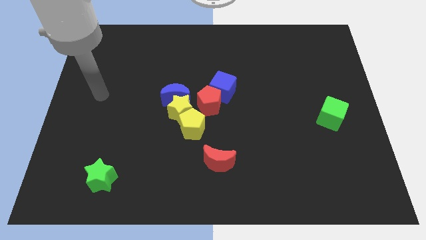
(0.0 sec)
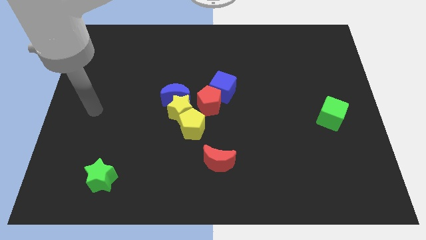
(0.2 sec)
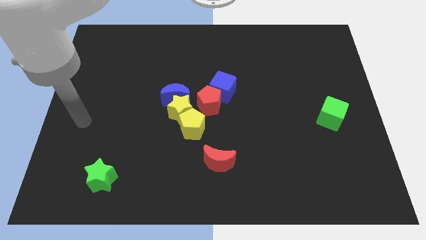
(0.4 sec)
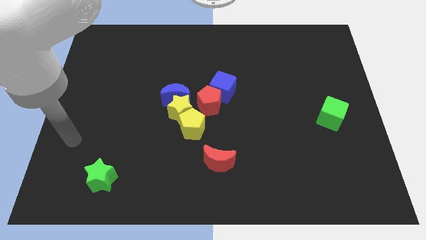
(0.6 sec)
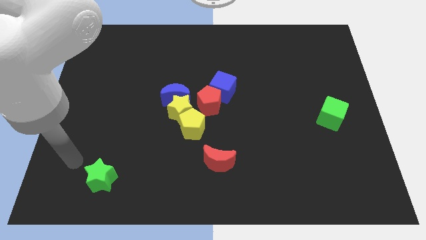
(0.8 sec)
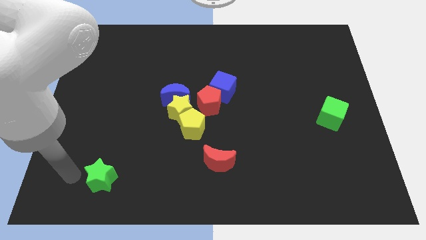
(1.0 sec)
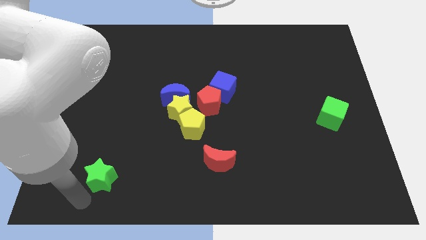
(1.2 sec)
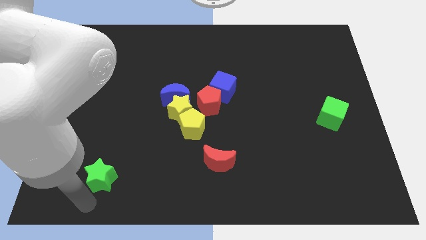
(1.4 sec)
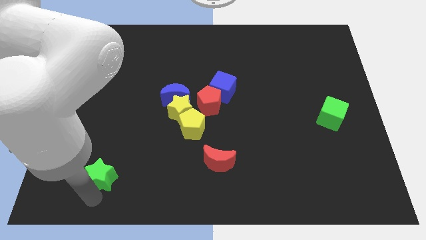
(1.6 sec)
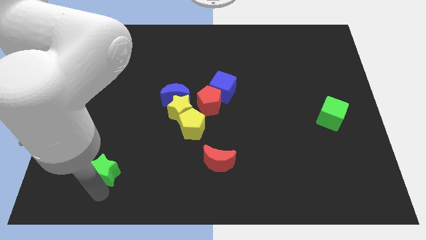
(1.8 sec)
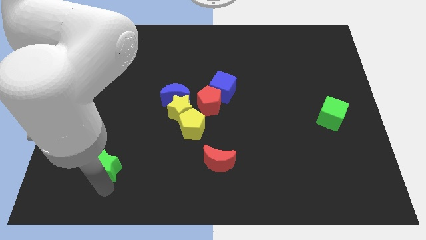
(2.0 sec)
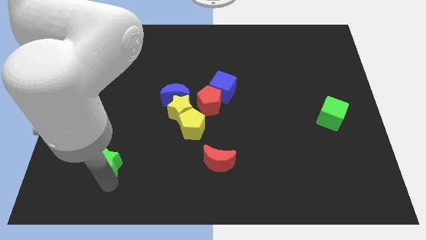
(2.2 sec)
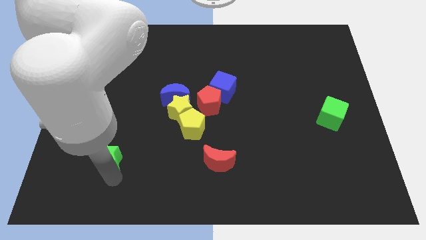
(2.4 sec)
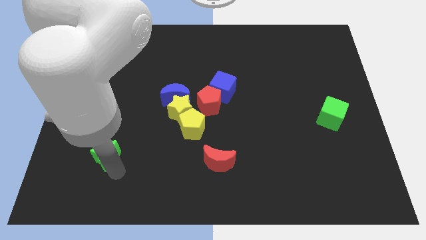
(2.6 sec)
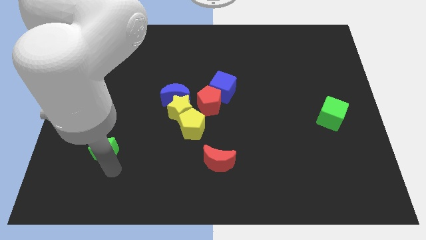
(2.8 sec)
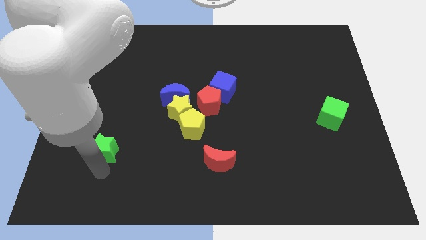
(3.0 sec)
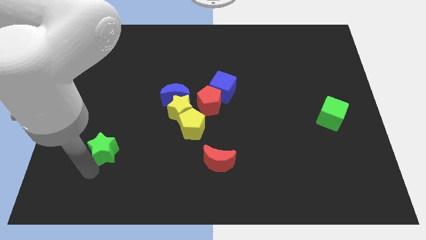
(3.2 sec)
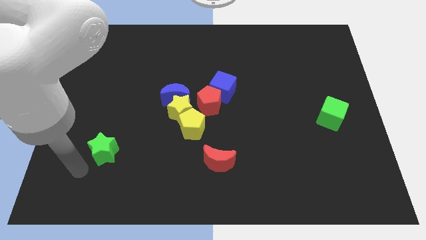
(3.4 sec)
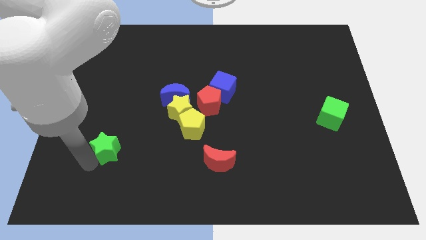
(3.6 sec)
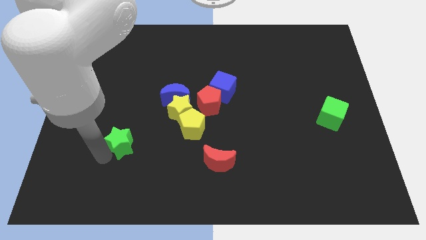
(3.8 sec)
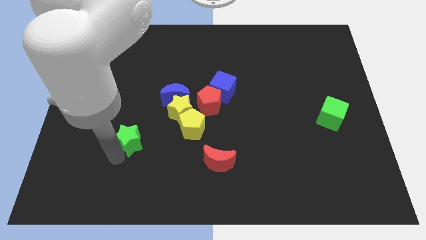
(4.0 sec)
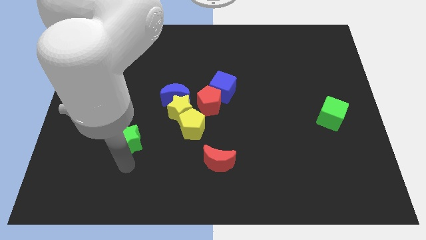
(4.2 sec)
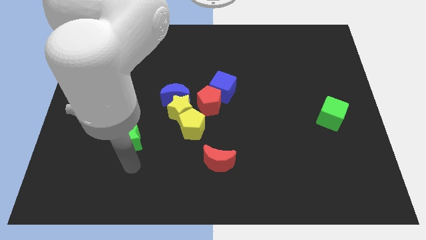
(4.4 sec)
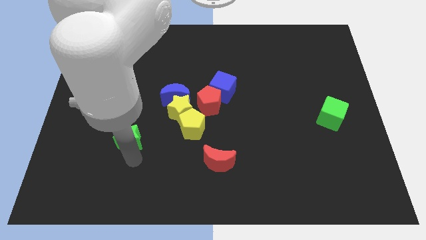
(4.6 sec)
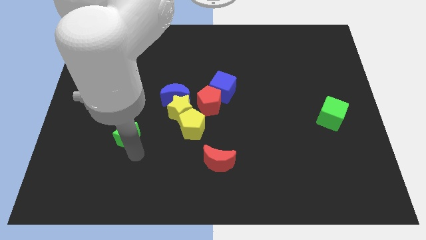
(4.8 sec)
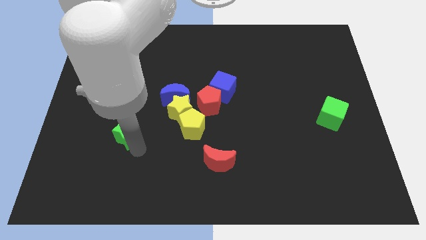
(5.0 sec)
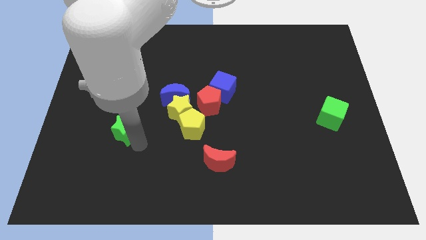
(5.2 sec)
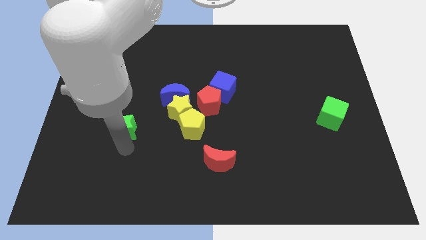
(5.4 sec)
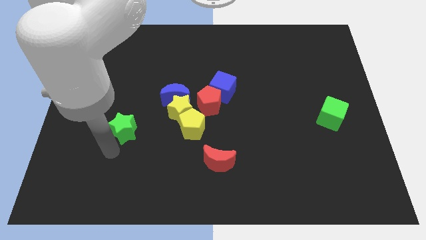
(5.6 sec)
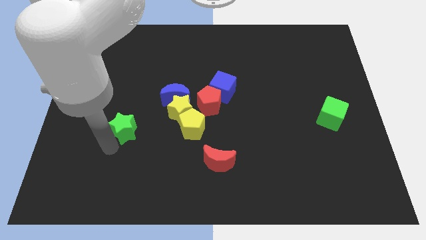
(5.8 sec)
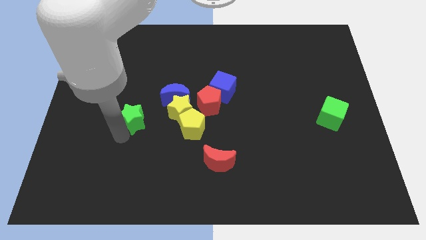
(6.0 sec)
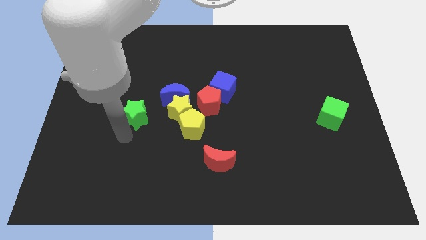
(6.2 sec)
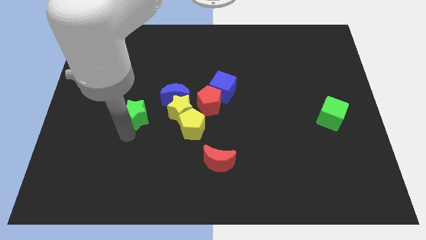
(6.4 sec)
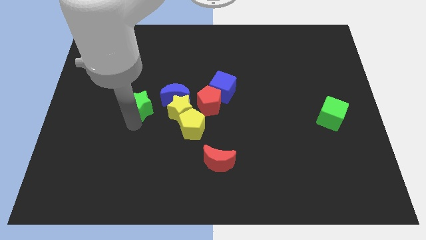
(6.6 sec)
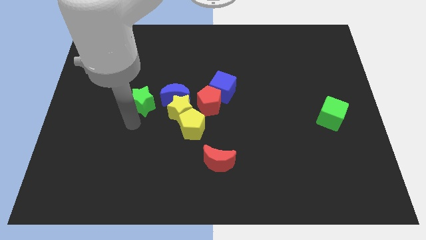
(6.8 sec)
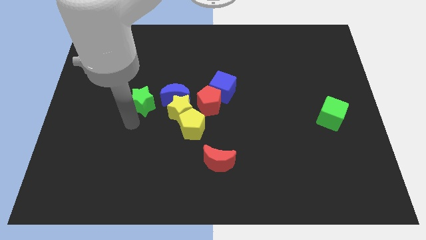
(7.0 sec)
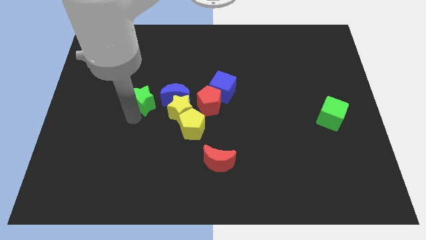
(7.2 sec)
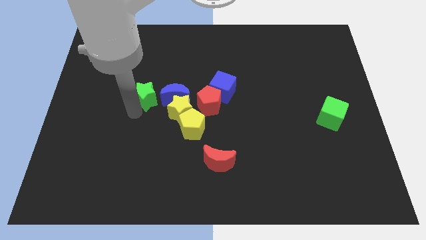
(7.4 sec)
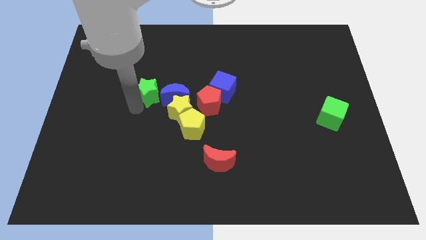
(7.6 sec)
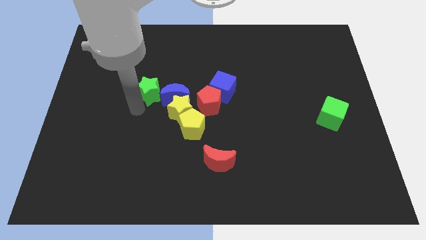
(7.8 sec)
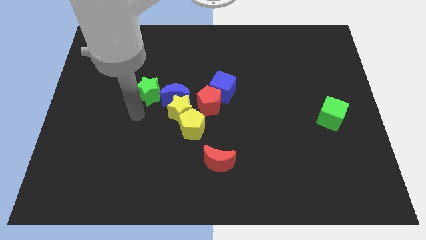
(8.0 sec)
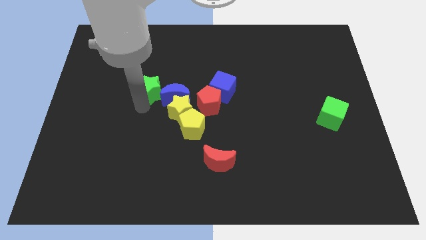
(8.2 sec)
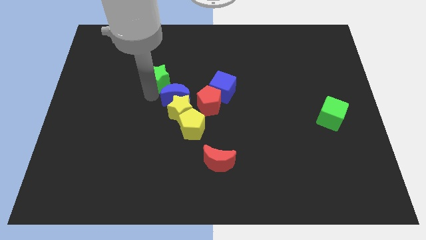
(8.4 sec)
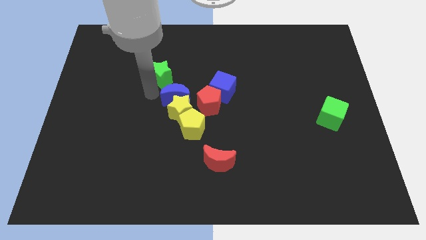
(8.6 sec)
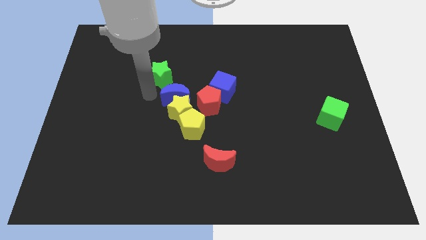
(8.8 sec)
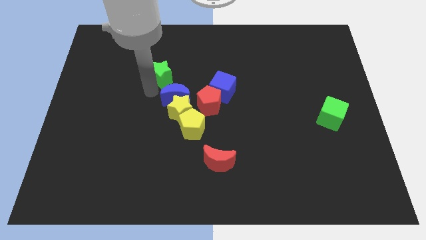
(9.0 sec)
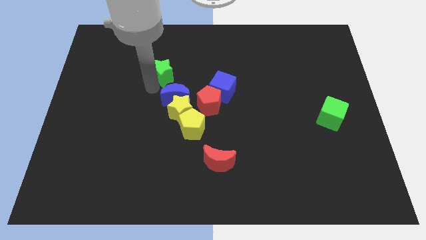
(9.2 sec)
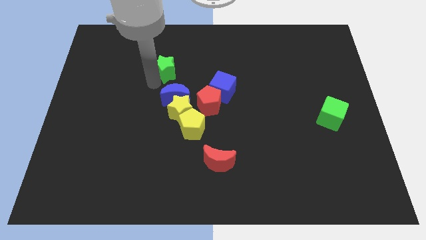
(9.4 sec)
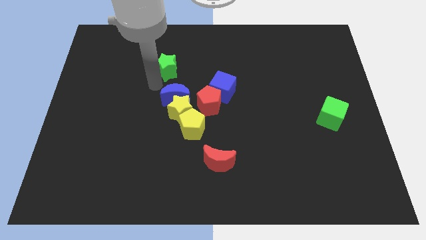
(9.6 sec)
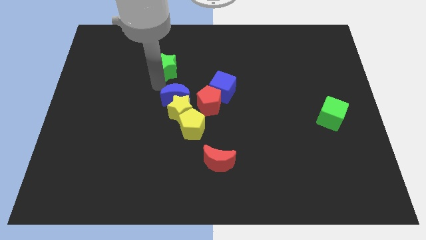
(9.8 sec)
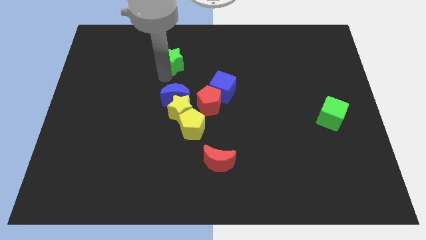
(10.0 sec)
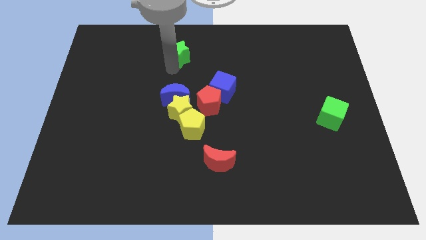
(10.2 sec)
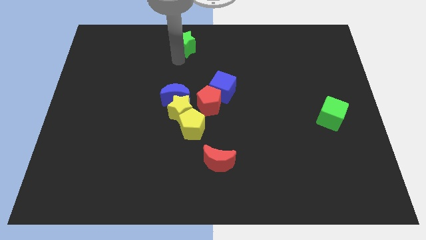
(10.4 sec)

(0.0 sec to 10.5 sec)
push the green star to the top

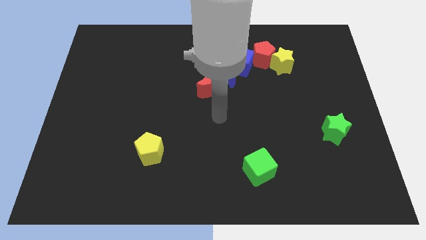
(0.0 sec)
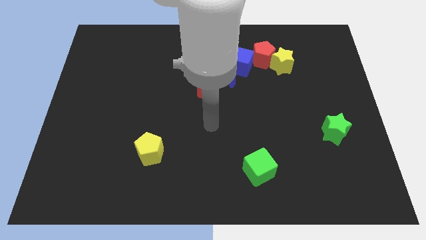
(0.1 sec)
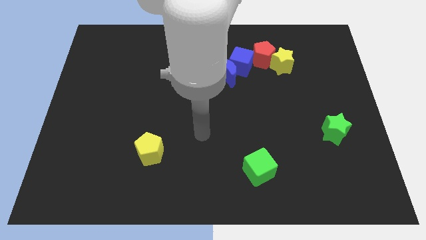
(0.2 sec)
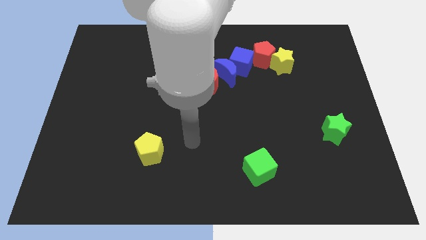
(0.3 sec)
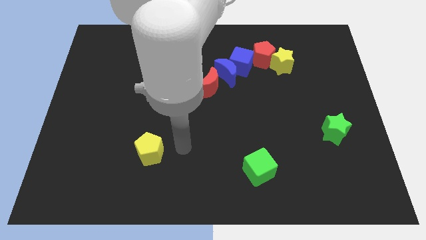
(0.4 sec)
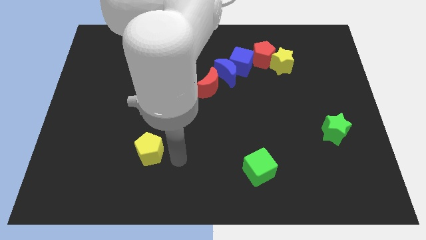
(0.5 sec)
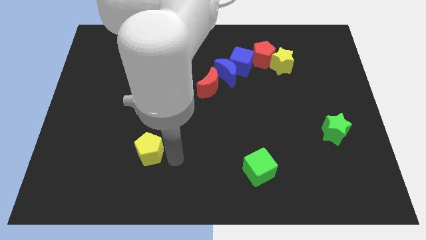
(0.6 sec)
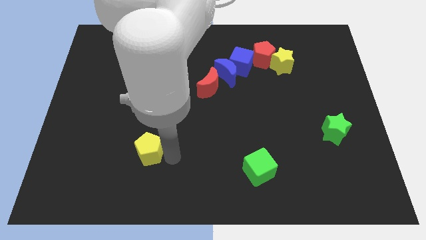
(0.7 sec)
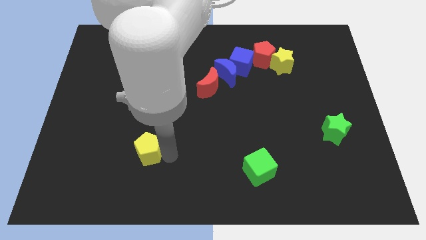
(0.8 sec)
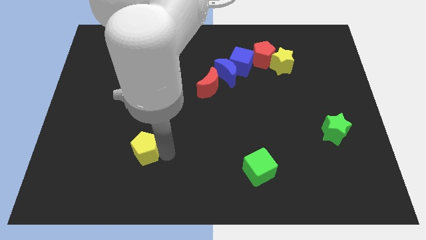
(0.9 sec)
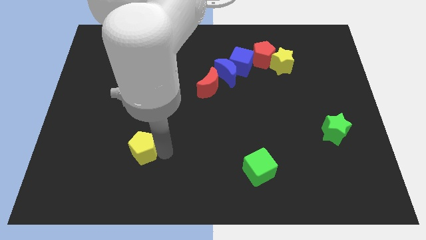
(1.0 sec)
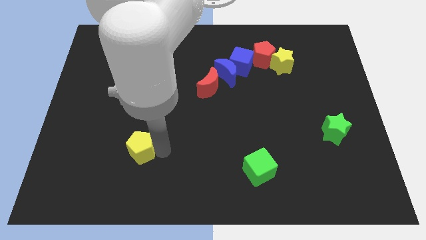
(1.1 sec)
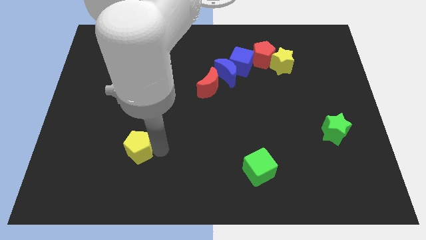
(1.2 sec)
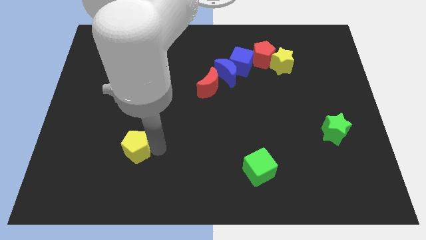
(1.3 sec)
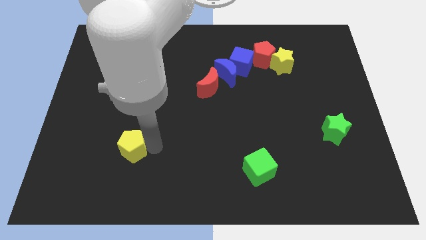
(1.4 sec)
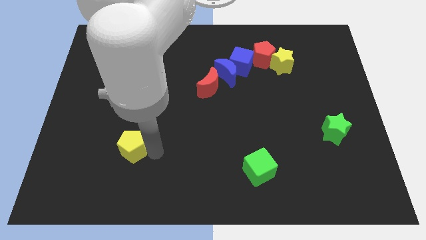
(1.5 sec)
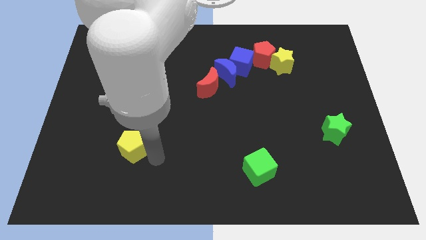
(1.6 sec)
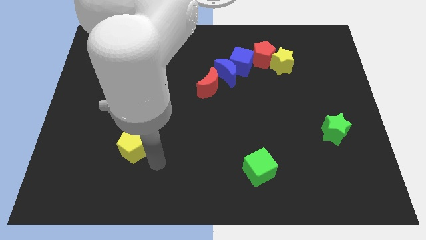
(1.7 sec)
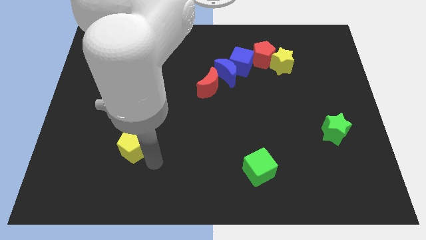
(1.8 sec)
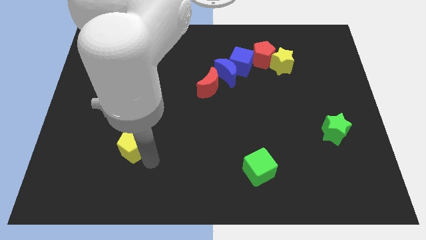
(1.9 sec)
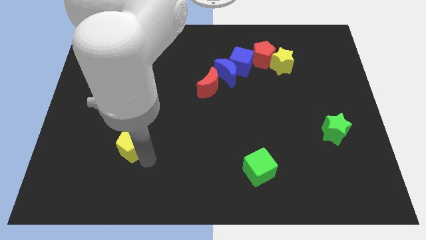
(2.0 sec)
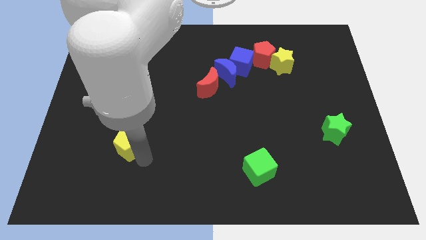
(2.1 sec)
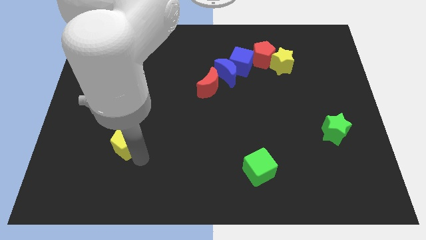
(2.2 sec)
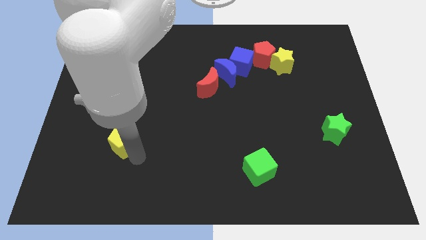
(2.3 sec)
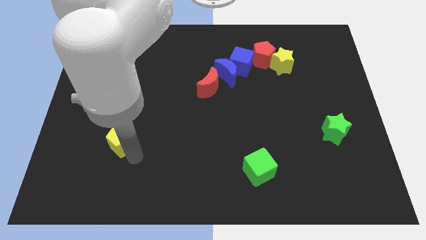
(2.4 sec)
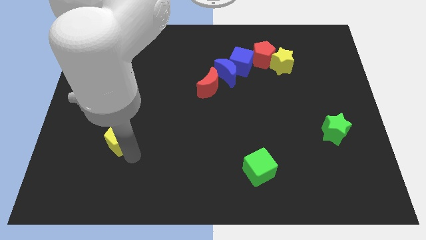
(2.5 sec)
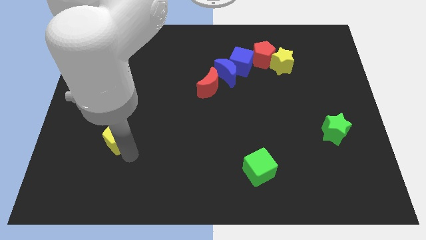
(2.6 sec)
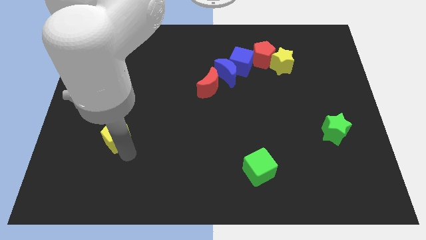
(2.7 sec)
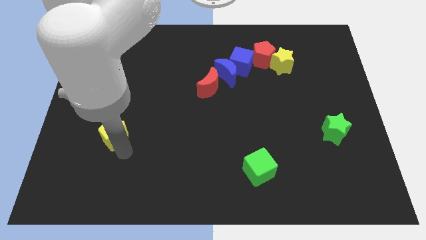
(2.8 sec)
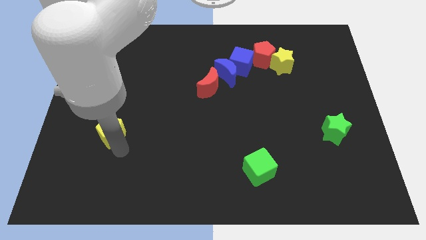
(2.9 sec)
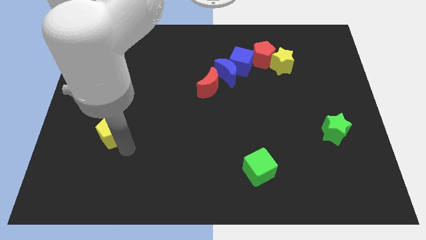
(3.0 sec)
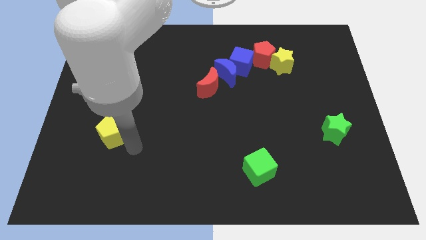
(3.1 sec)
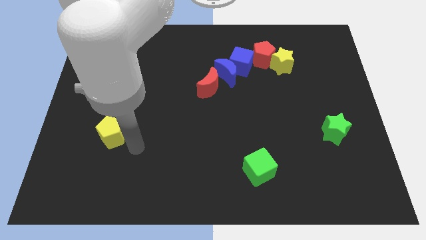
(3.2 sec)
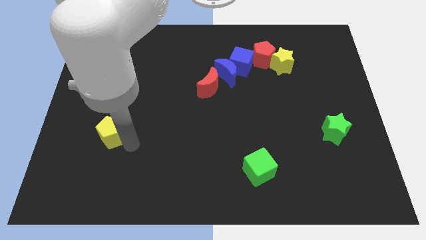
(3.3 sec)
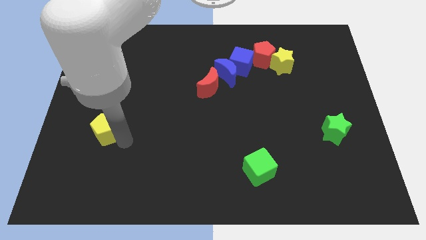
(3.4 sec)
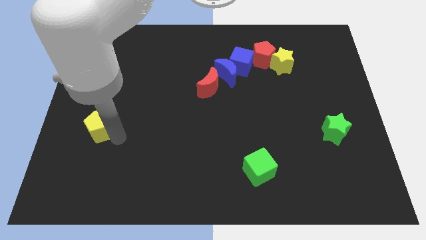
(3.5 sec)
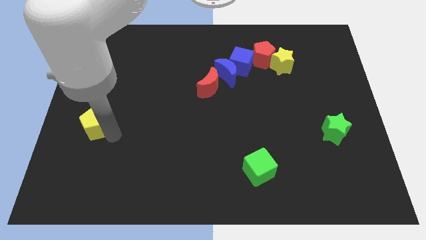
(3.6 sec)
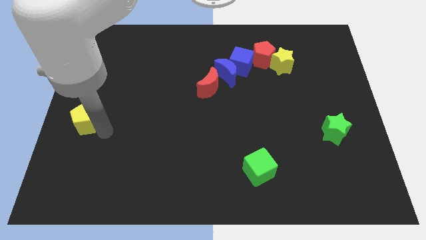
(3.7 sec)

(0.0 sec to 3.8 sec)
push the yellow pentagon to the left side
